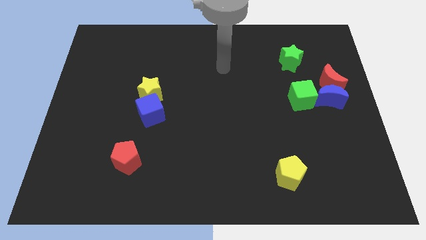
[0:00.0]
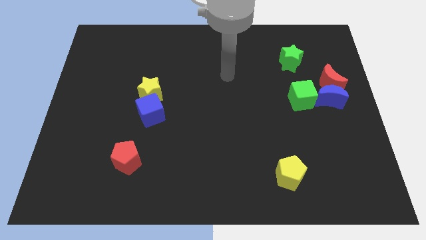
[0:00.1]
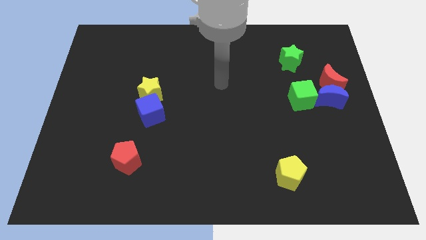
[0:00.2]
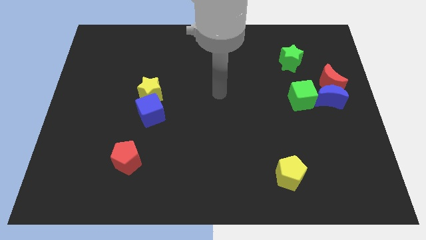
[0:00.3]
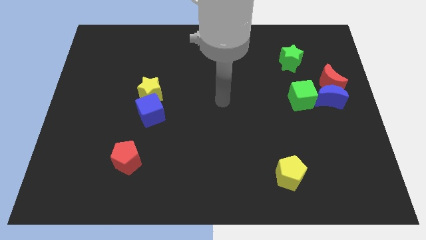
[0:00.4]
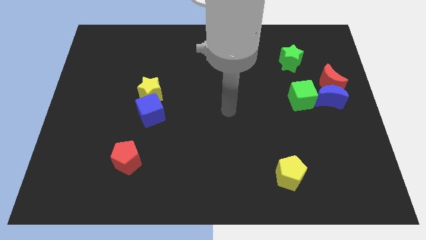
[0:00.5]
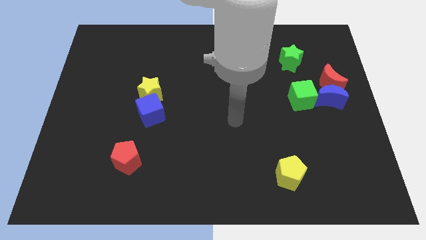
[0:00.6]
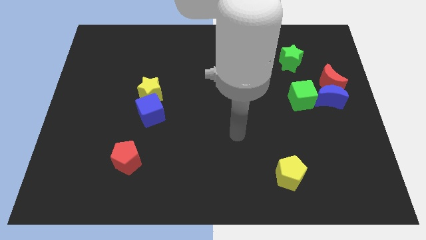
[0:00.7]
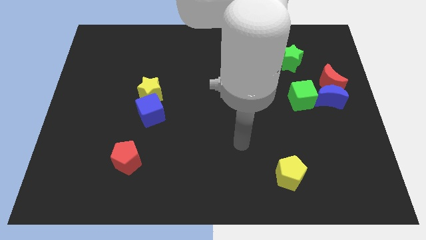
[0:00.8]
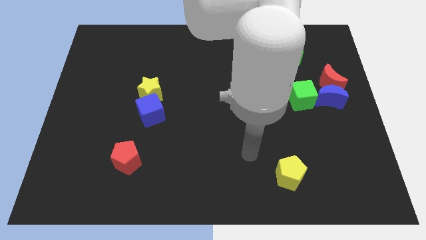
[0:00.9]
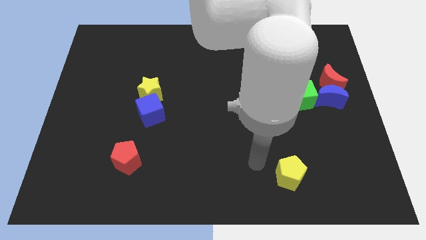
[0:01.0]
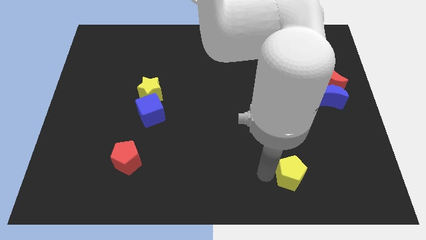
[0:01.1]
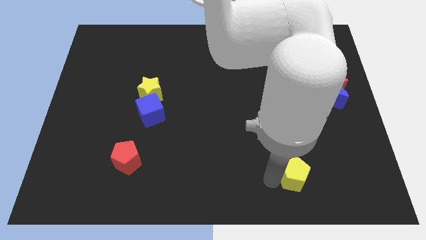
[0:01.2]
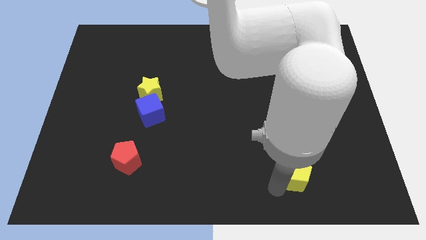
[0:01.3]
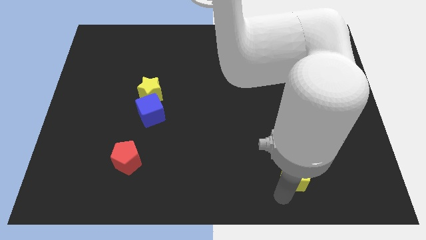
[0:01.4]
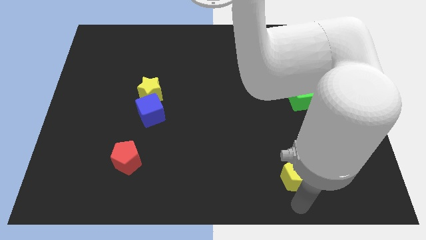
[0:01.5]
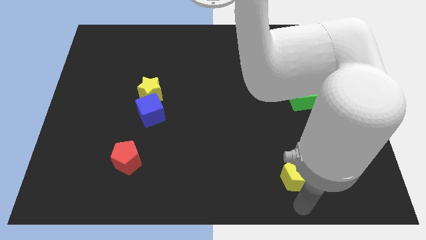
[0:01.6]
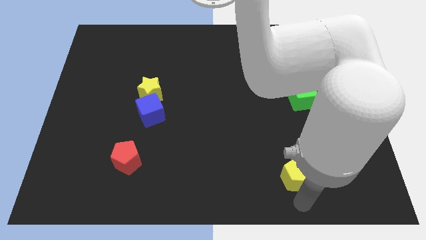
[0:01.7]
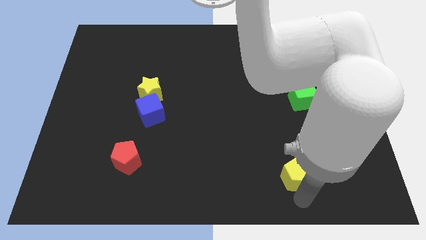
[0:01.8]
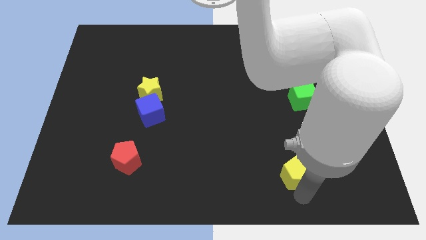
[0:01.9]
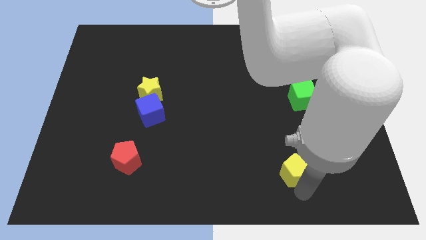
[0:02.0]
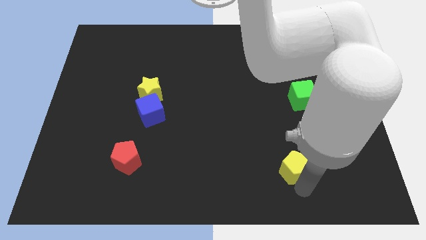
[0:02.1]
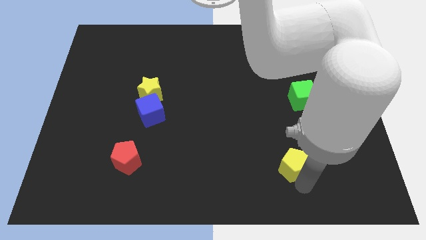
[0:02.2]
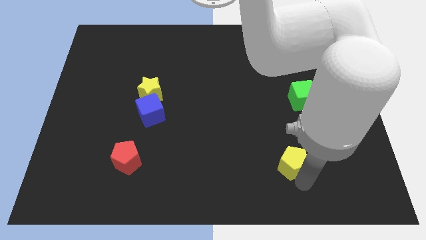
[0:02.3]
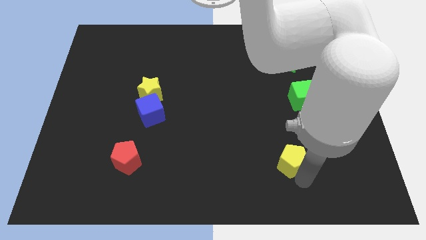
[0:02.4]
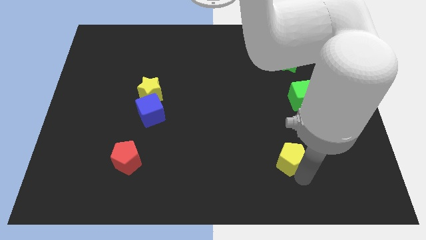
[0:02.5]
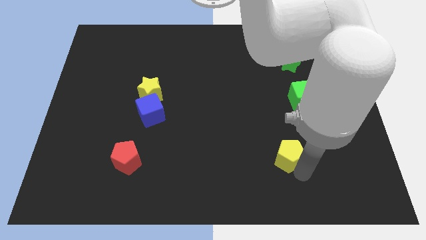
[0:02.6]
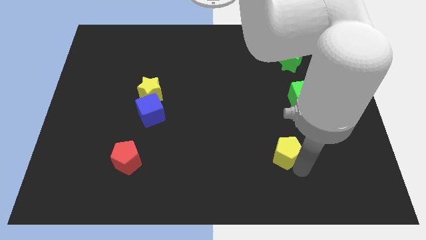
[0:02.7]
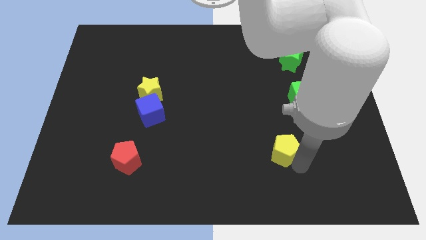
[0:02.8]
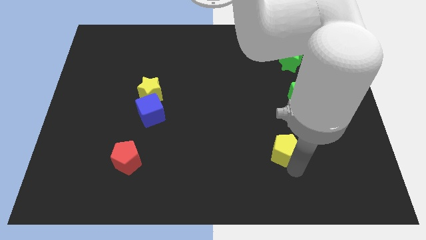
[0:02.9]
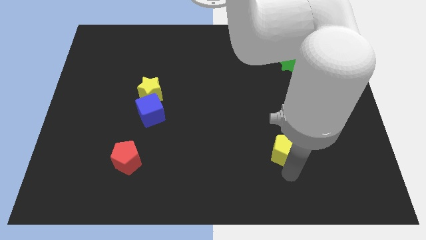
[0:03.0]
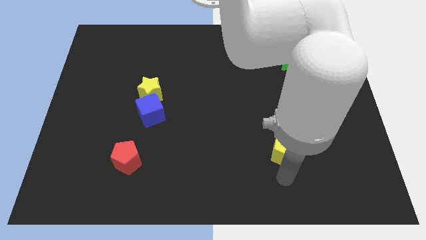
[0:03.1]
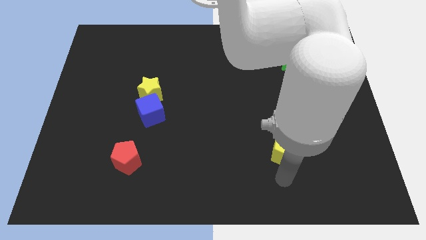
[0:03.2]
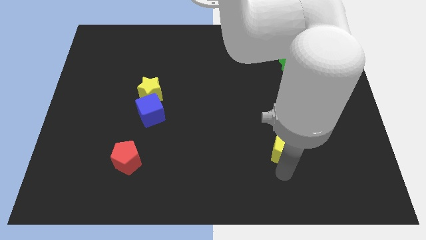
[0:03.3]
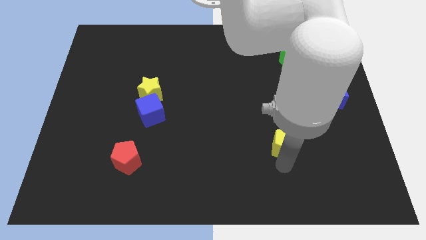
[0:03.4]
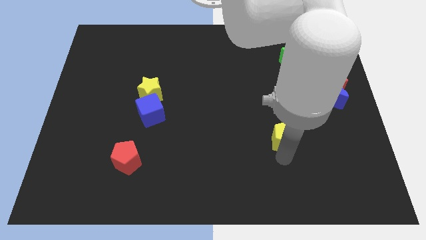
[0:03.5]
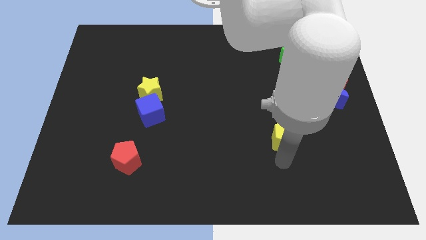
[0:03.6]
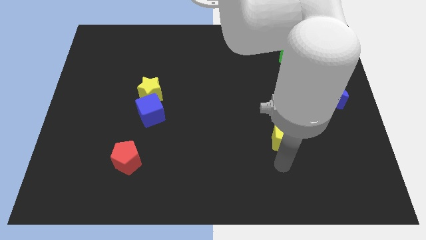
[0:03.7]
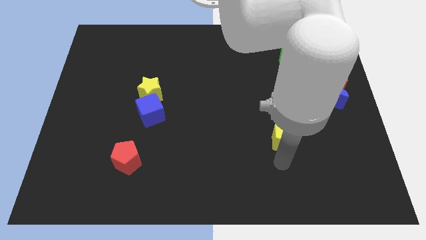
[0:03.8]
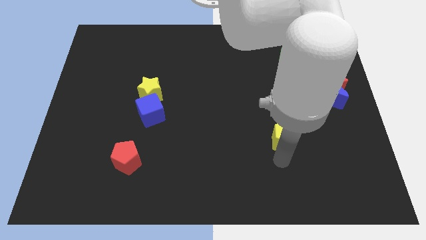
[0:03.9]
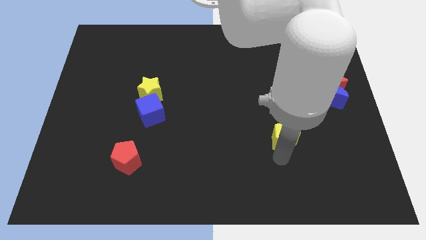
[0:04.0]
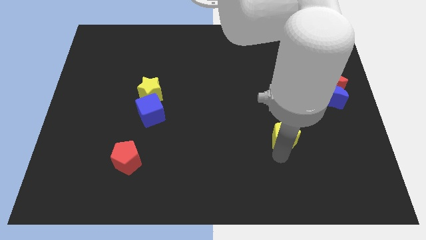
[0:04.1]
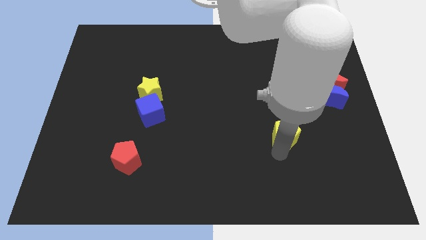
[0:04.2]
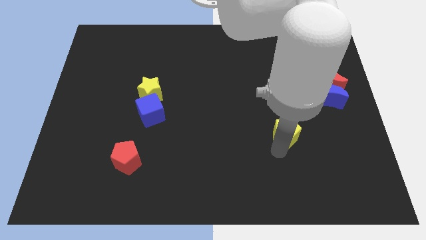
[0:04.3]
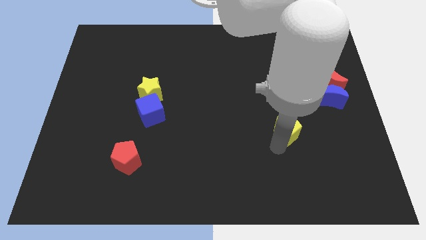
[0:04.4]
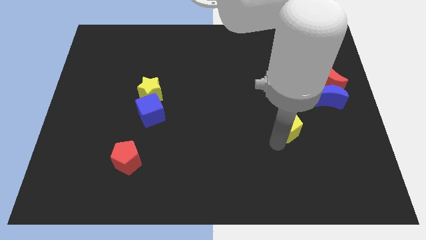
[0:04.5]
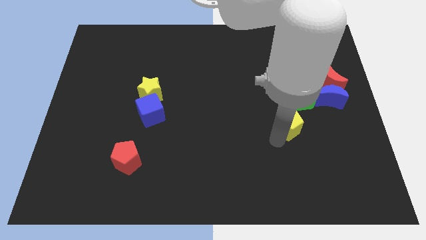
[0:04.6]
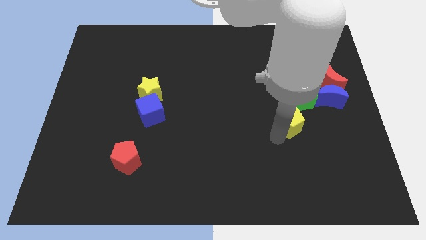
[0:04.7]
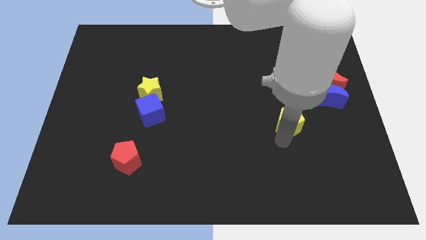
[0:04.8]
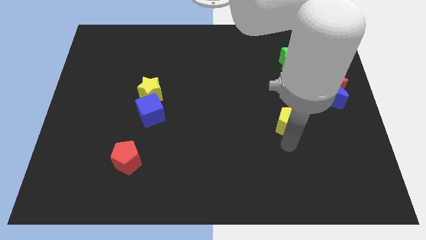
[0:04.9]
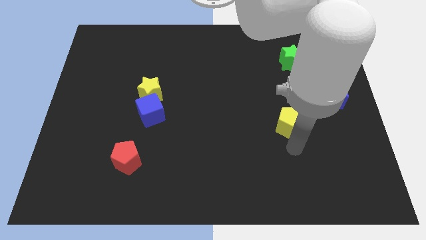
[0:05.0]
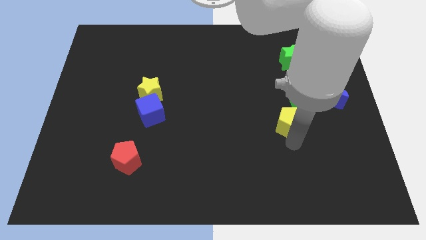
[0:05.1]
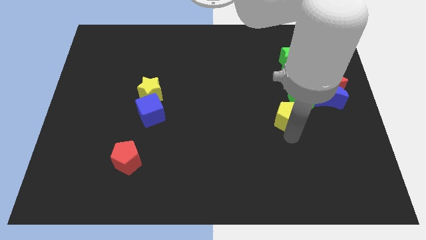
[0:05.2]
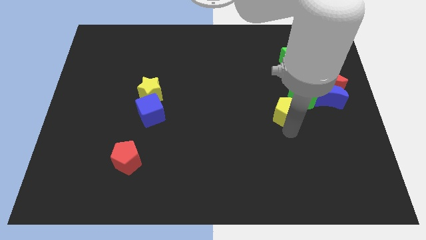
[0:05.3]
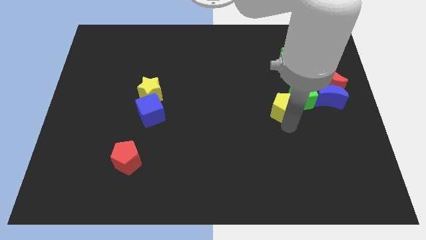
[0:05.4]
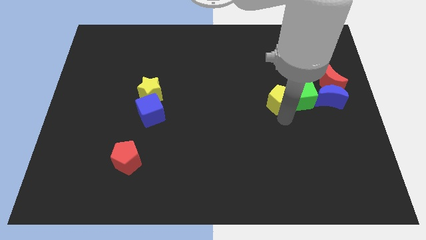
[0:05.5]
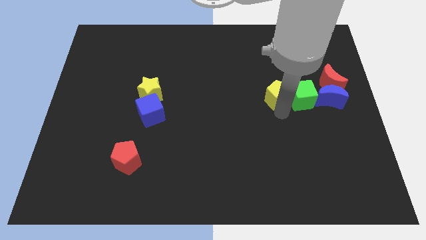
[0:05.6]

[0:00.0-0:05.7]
put the yellow pentagon left of the red moon

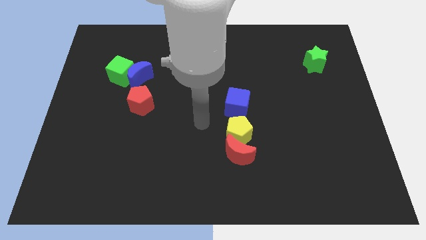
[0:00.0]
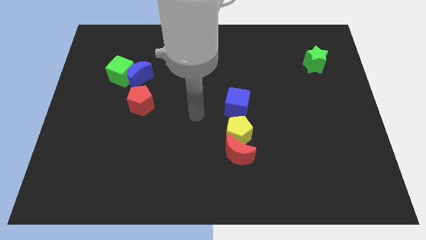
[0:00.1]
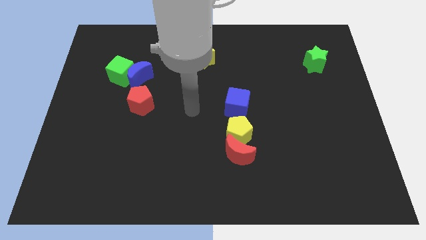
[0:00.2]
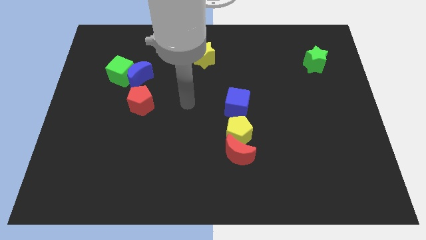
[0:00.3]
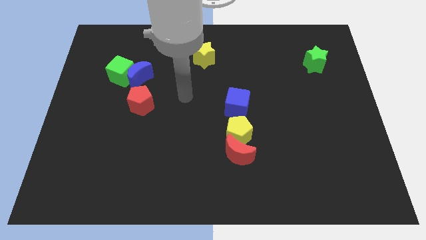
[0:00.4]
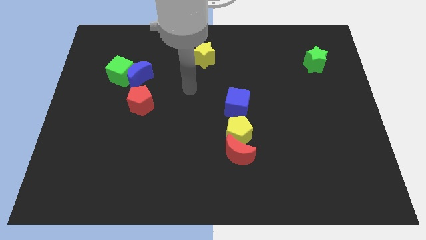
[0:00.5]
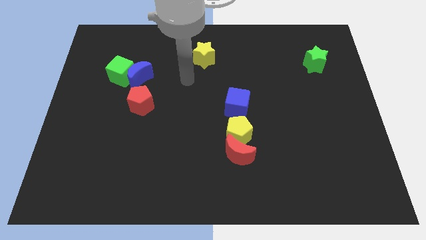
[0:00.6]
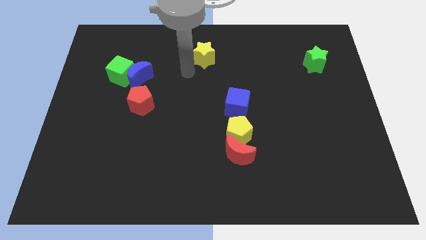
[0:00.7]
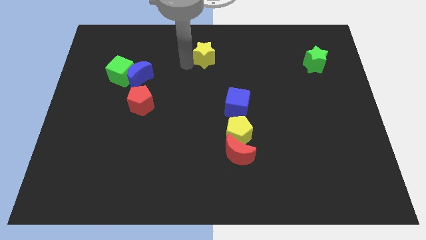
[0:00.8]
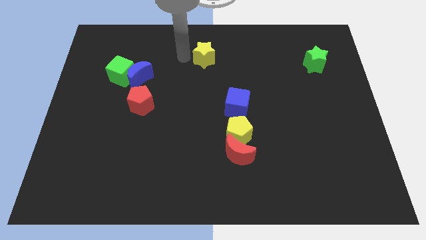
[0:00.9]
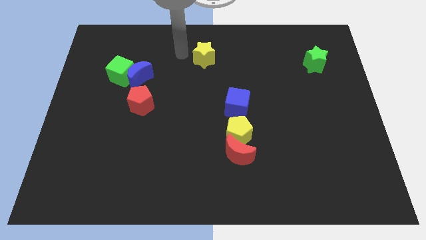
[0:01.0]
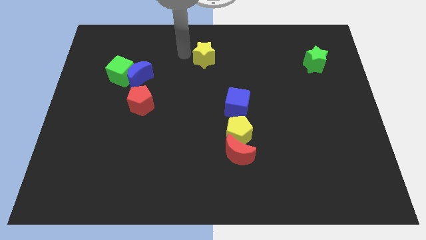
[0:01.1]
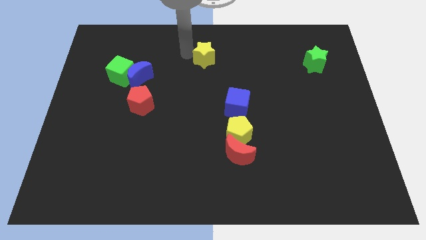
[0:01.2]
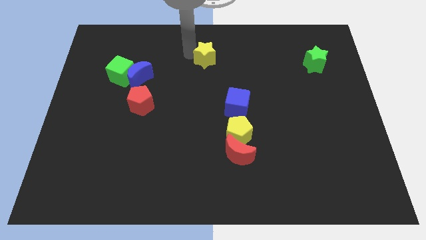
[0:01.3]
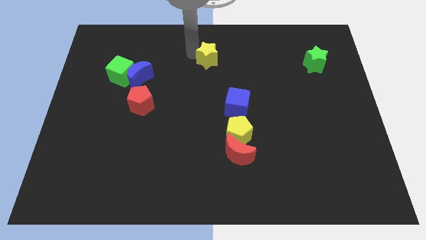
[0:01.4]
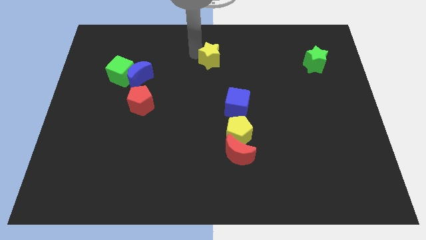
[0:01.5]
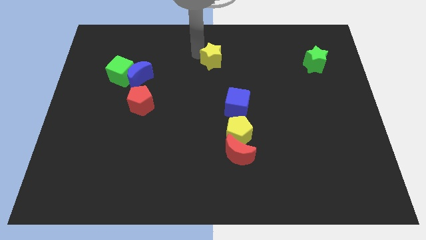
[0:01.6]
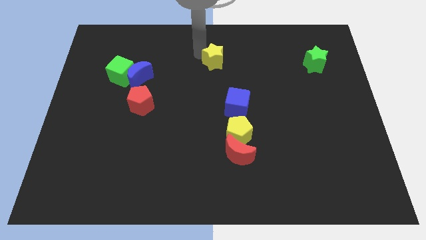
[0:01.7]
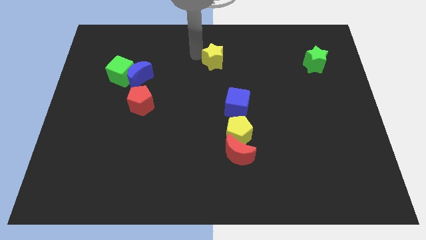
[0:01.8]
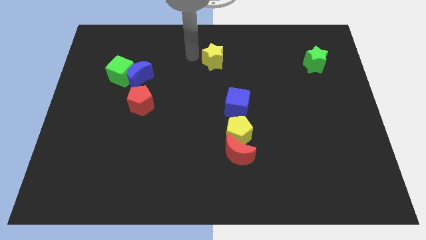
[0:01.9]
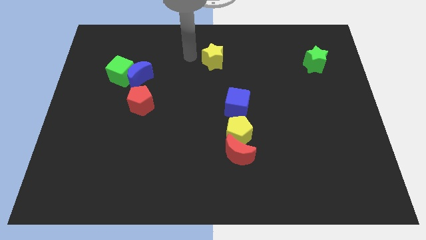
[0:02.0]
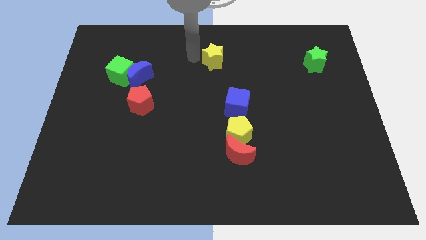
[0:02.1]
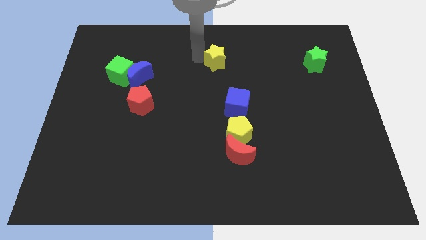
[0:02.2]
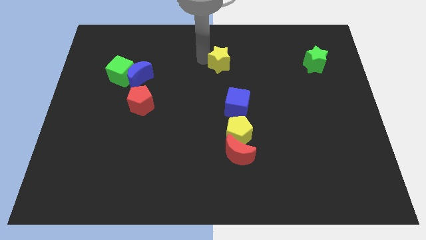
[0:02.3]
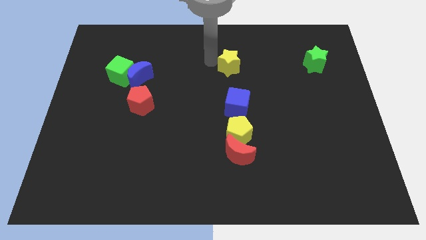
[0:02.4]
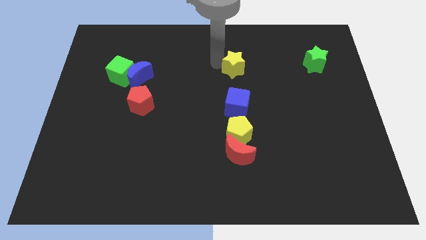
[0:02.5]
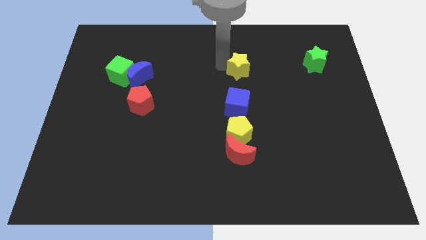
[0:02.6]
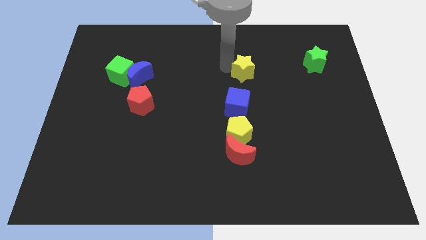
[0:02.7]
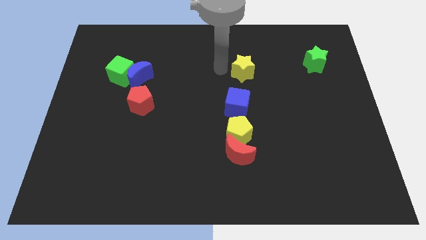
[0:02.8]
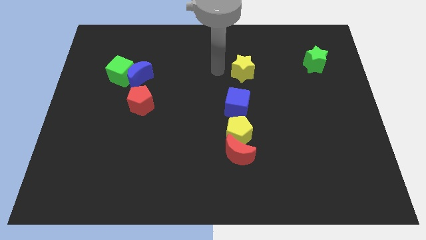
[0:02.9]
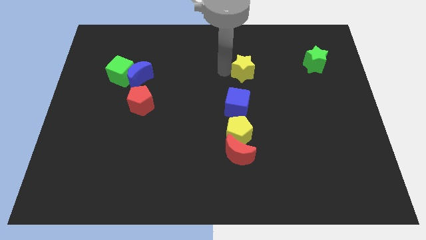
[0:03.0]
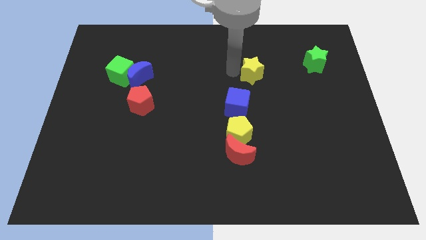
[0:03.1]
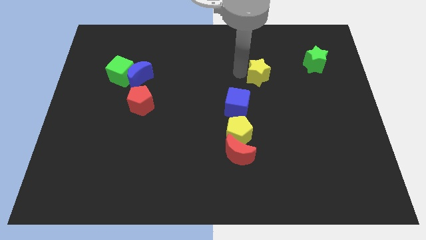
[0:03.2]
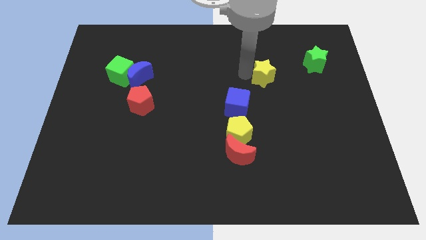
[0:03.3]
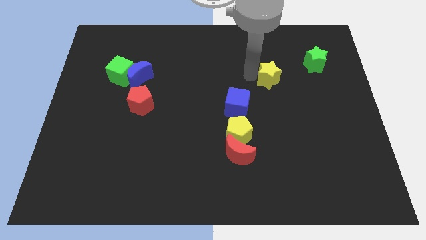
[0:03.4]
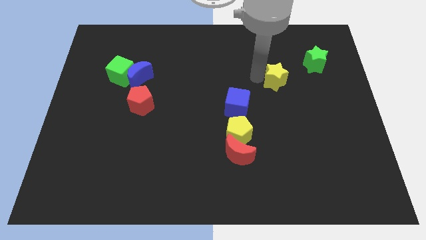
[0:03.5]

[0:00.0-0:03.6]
slide the yellow star to the bottom left side of the green star
